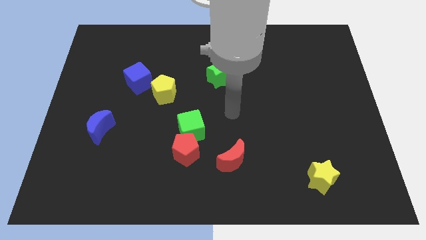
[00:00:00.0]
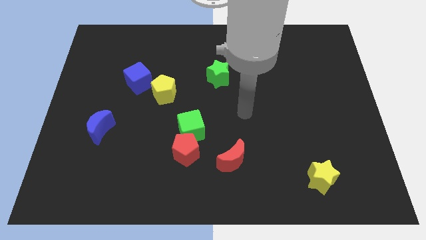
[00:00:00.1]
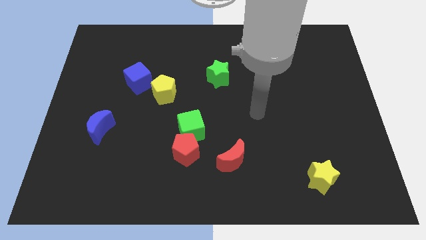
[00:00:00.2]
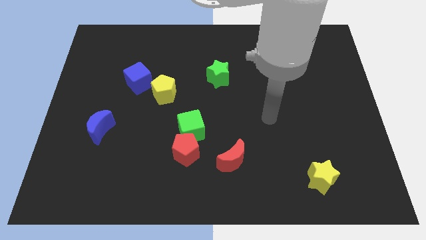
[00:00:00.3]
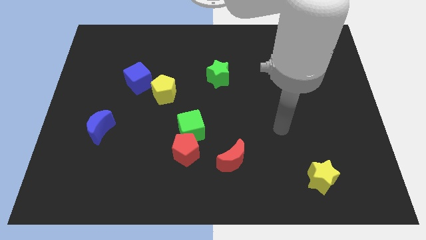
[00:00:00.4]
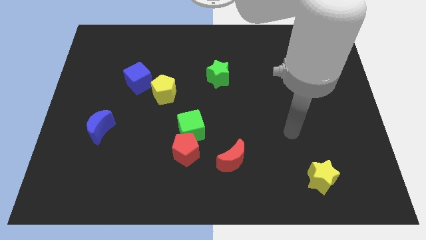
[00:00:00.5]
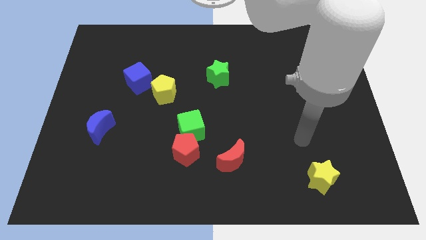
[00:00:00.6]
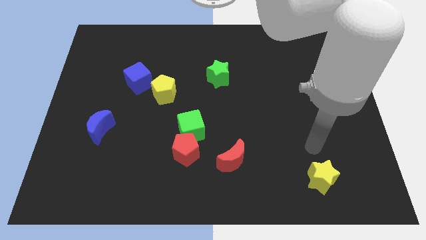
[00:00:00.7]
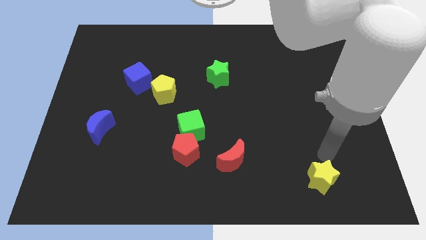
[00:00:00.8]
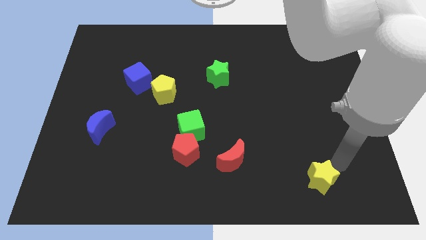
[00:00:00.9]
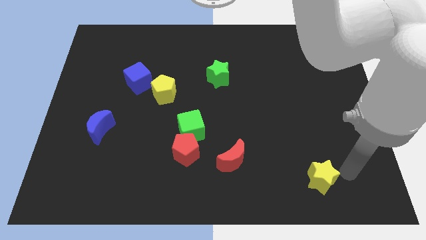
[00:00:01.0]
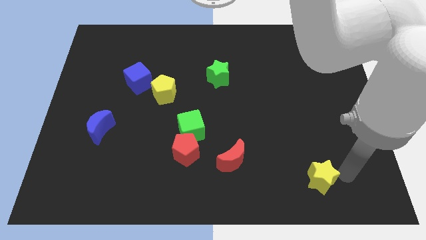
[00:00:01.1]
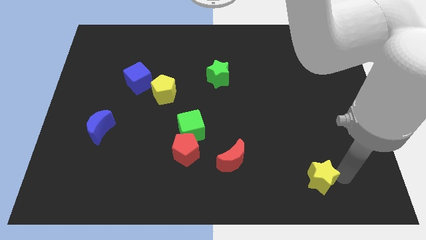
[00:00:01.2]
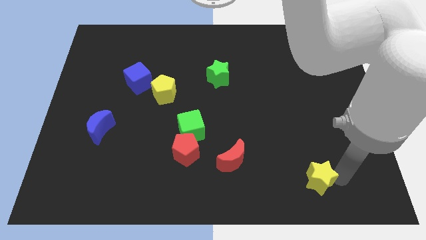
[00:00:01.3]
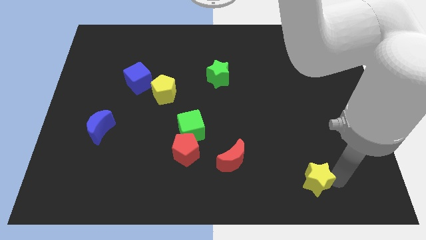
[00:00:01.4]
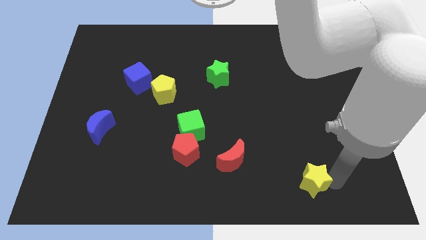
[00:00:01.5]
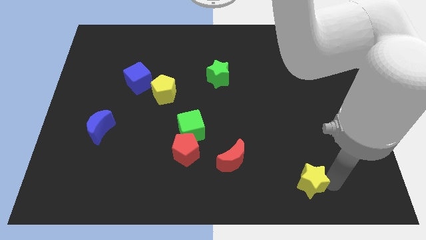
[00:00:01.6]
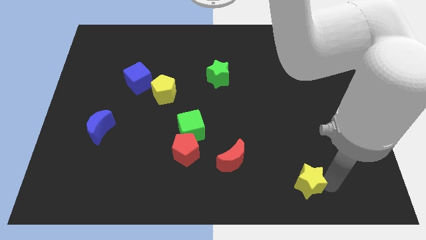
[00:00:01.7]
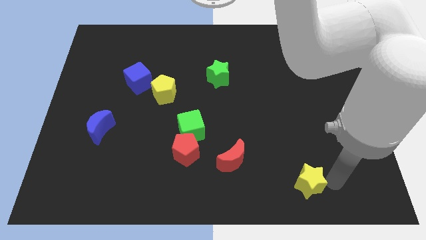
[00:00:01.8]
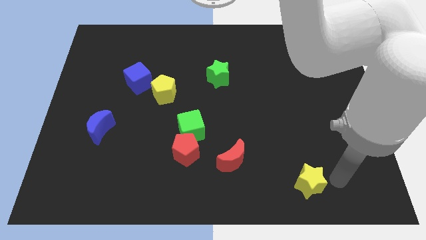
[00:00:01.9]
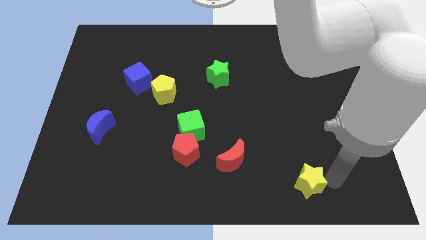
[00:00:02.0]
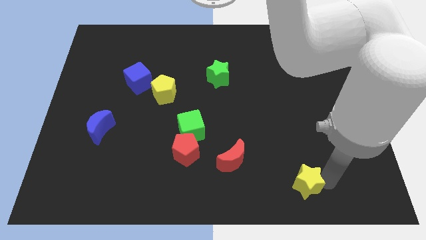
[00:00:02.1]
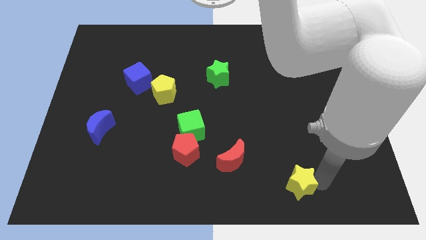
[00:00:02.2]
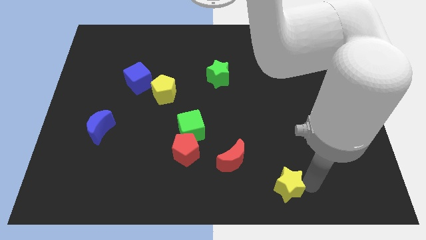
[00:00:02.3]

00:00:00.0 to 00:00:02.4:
move the yellow star to the left slightly

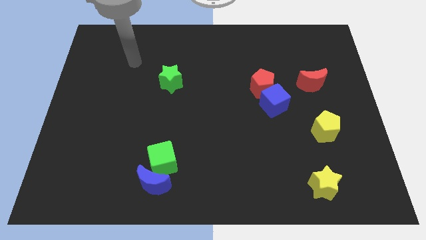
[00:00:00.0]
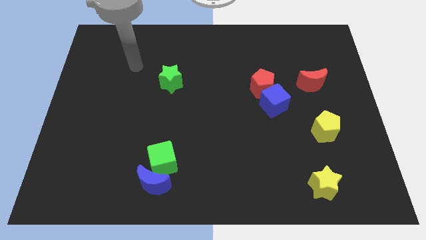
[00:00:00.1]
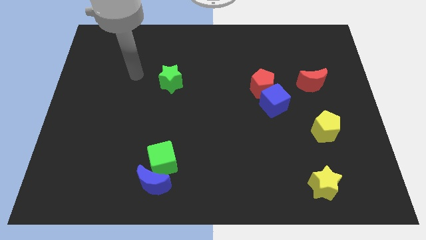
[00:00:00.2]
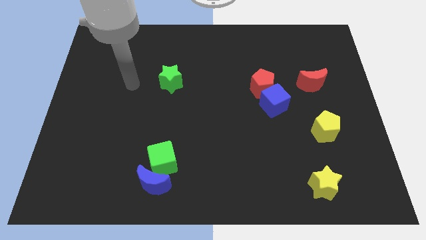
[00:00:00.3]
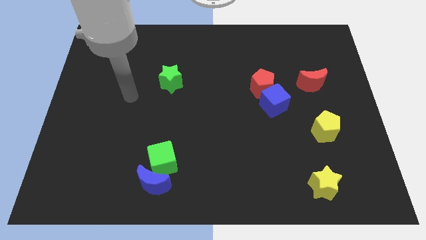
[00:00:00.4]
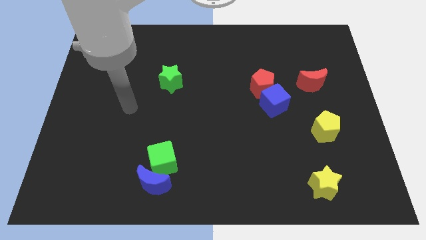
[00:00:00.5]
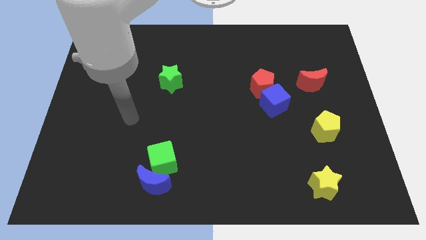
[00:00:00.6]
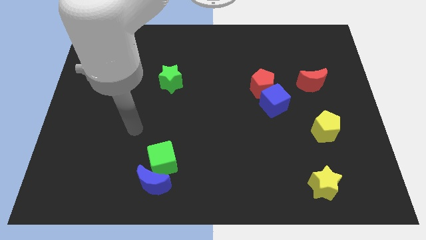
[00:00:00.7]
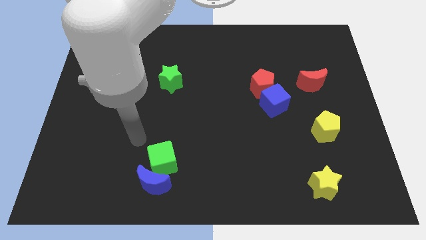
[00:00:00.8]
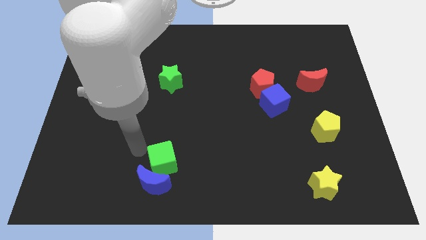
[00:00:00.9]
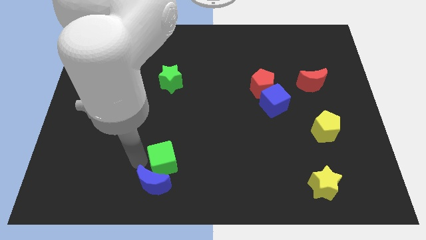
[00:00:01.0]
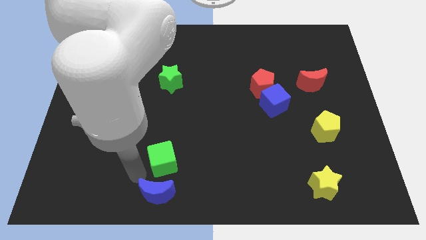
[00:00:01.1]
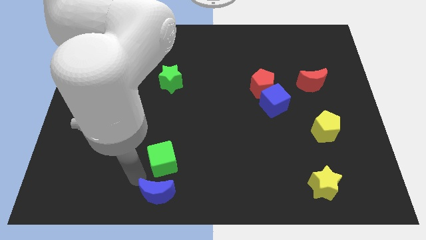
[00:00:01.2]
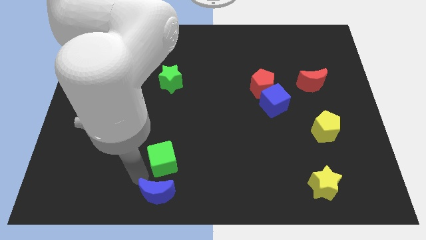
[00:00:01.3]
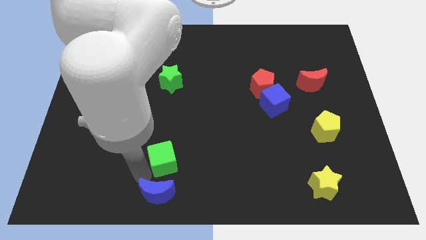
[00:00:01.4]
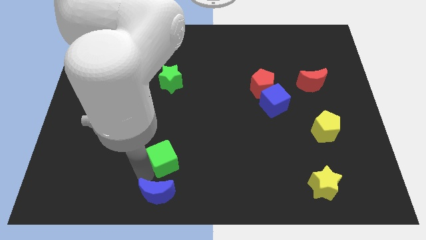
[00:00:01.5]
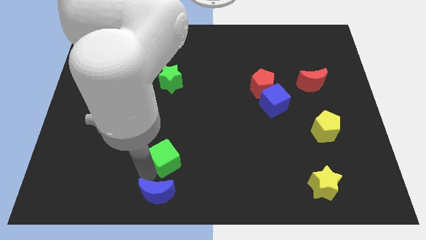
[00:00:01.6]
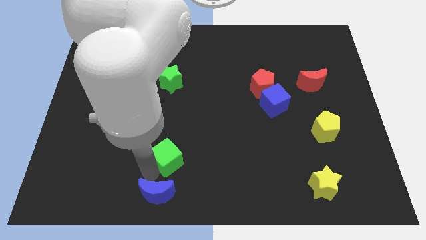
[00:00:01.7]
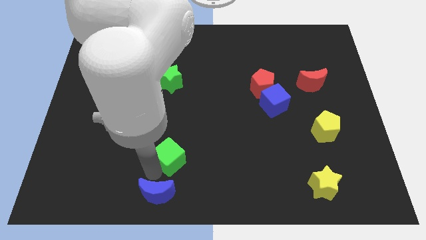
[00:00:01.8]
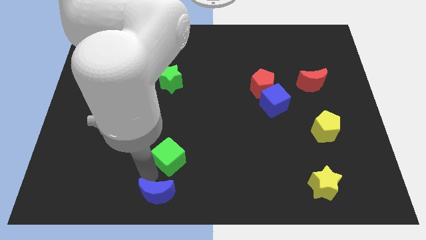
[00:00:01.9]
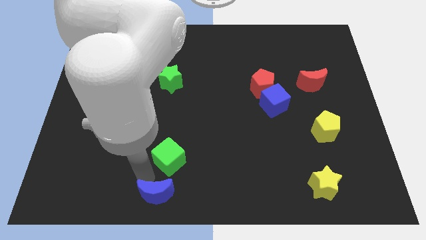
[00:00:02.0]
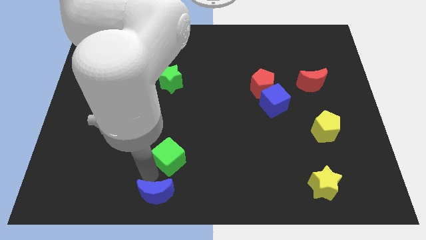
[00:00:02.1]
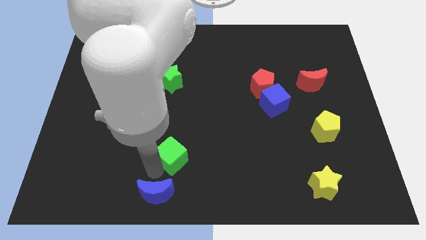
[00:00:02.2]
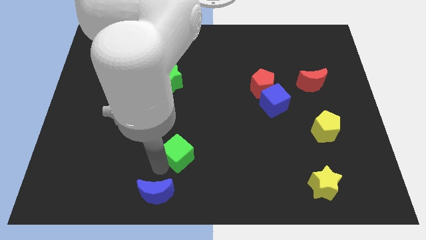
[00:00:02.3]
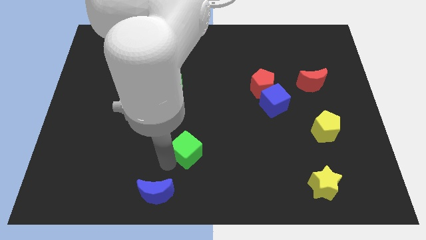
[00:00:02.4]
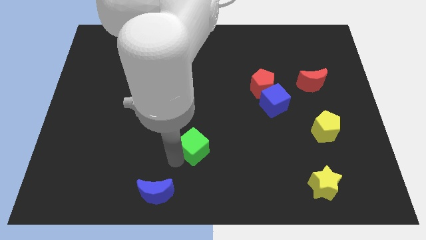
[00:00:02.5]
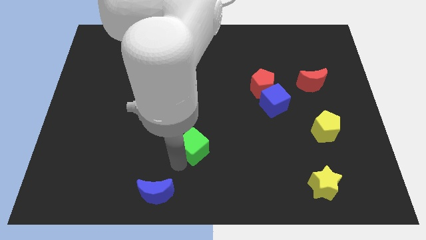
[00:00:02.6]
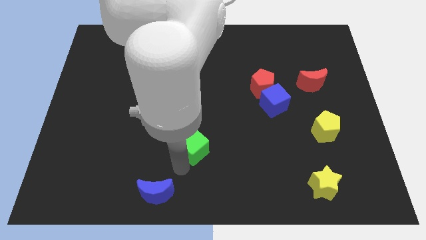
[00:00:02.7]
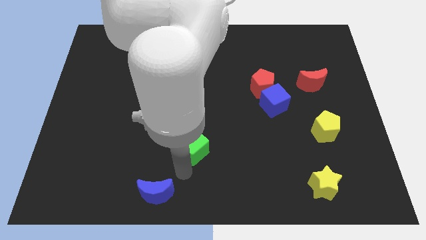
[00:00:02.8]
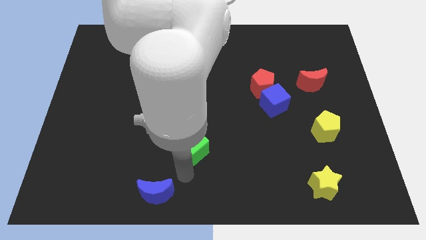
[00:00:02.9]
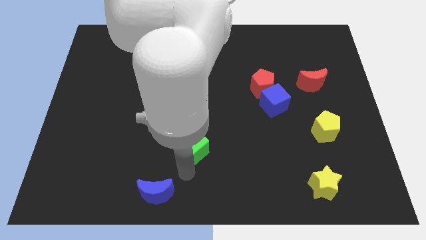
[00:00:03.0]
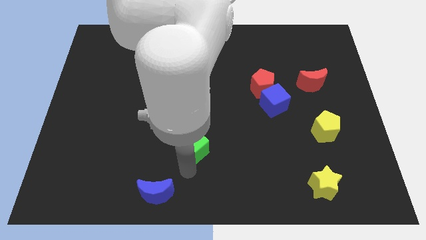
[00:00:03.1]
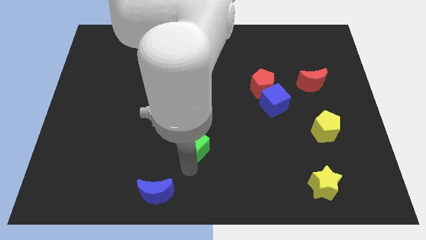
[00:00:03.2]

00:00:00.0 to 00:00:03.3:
push the green cube slightly up and right diagonally

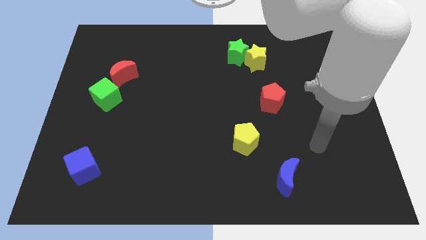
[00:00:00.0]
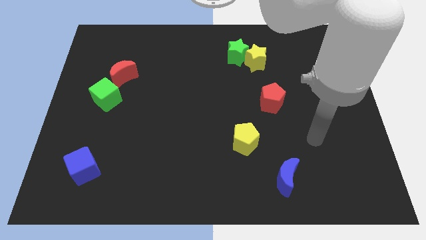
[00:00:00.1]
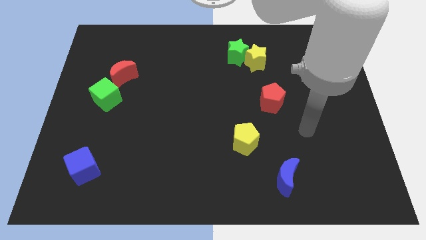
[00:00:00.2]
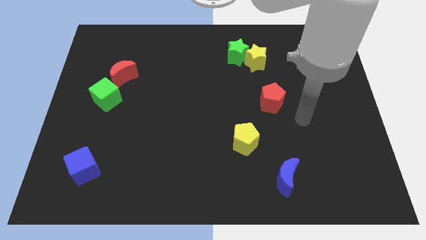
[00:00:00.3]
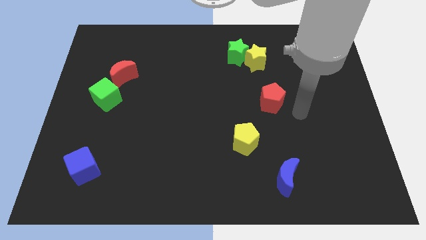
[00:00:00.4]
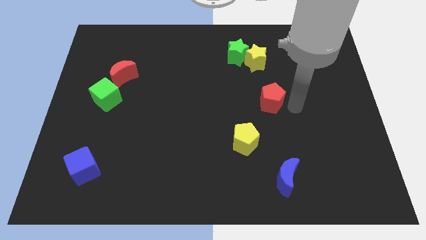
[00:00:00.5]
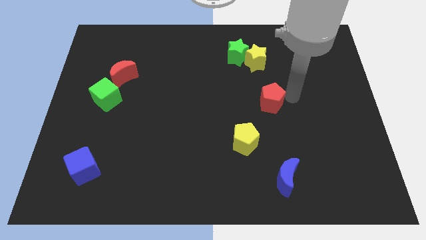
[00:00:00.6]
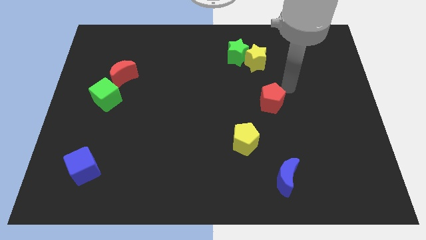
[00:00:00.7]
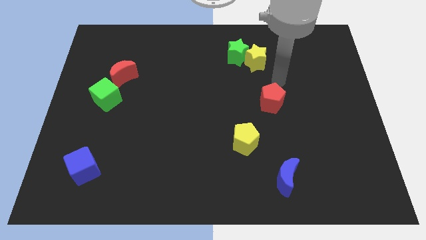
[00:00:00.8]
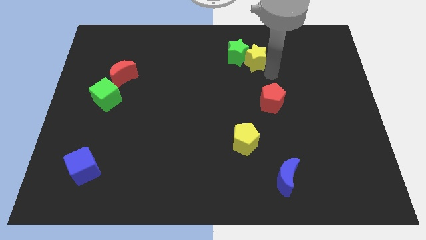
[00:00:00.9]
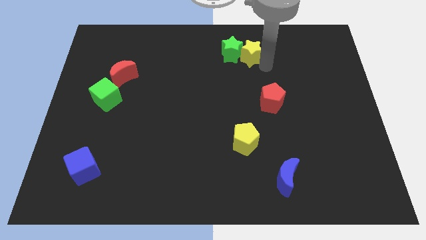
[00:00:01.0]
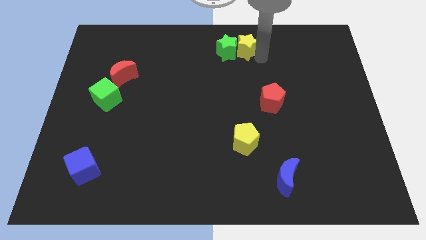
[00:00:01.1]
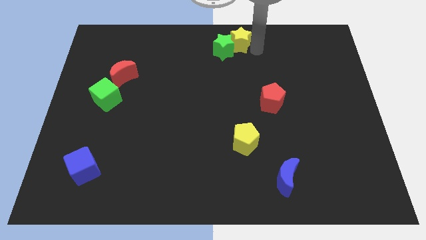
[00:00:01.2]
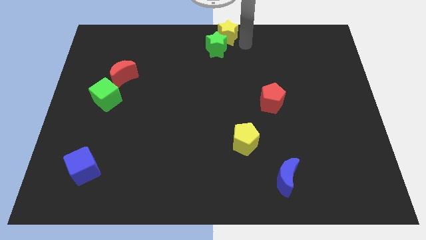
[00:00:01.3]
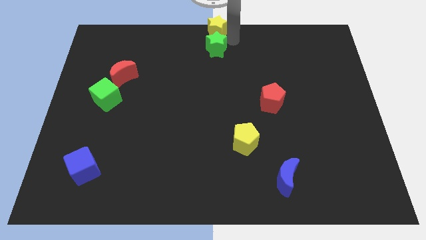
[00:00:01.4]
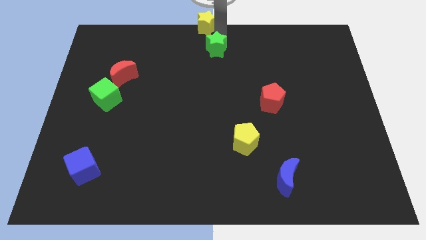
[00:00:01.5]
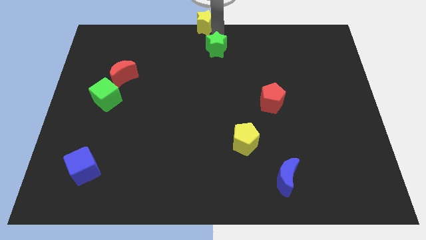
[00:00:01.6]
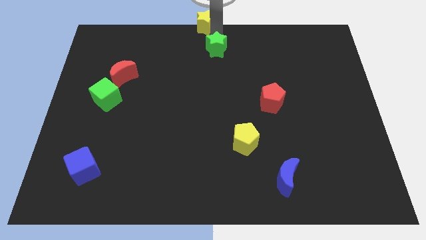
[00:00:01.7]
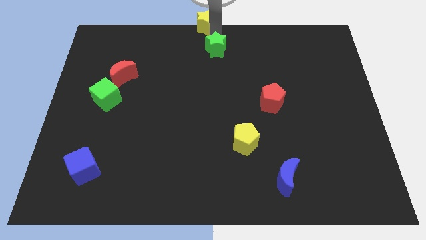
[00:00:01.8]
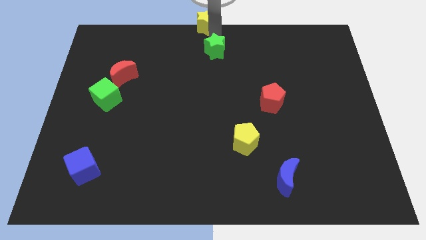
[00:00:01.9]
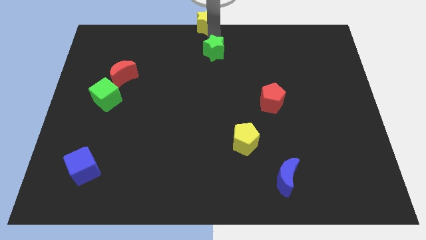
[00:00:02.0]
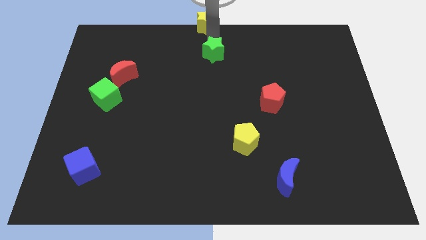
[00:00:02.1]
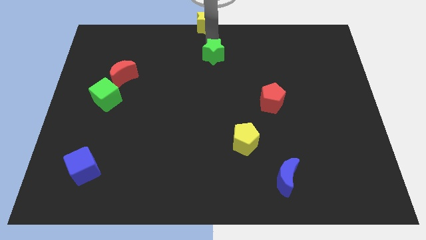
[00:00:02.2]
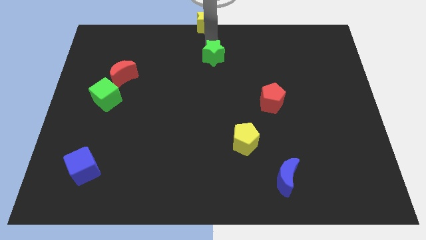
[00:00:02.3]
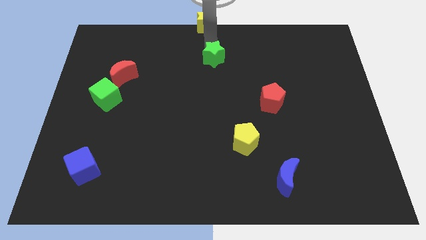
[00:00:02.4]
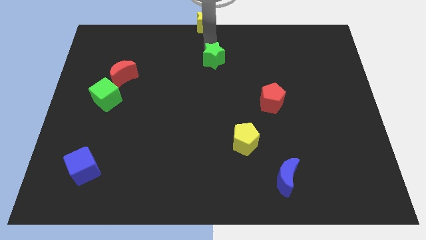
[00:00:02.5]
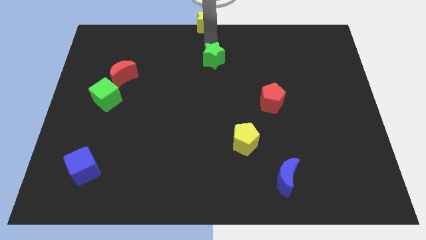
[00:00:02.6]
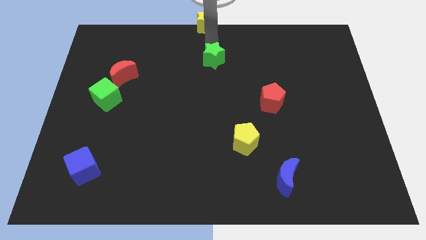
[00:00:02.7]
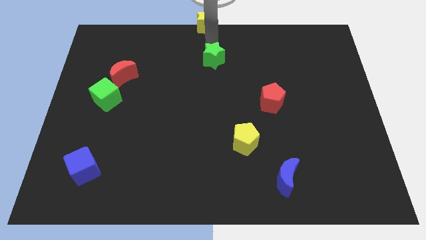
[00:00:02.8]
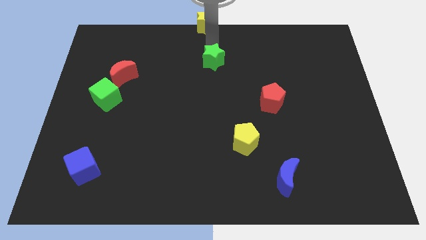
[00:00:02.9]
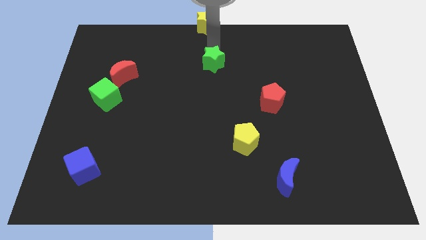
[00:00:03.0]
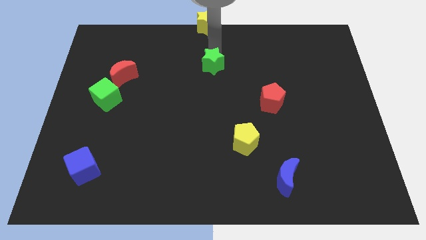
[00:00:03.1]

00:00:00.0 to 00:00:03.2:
slightly push the green star downwards and then left
